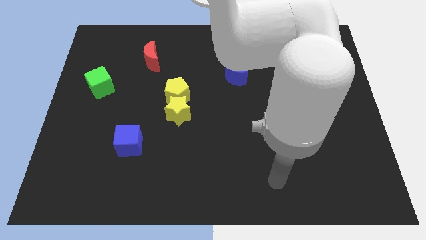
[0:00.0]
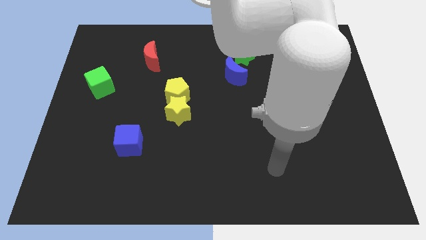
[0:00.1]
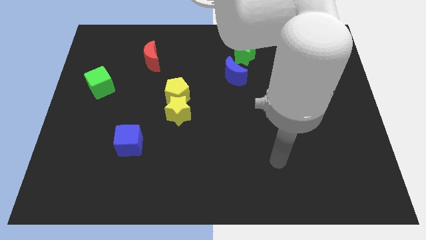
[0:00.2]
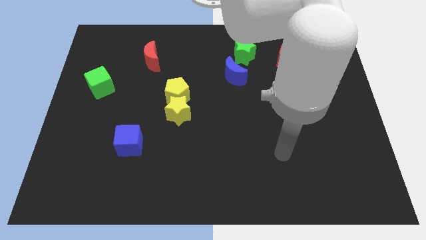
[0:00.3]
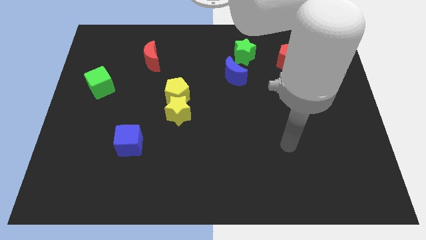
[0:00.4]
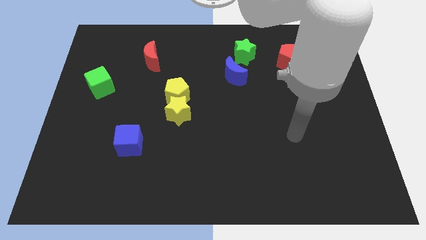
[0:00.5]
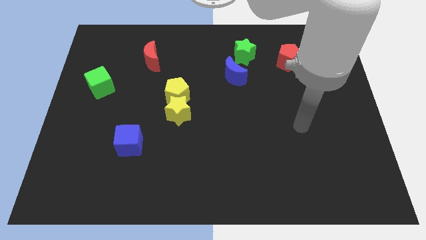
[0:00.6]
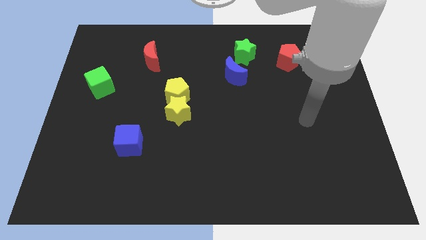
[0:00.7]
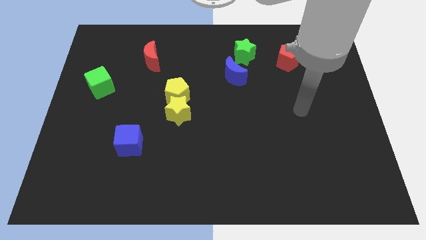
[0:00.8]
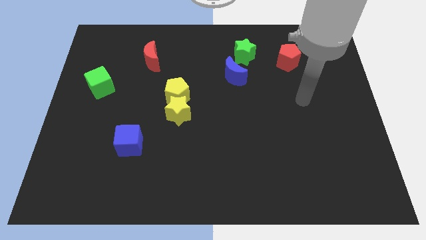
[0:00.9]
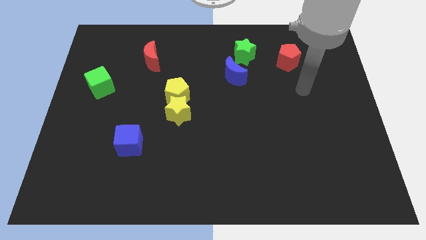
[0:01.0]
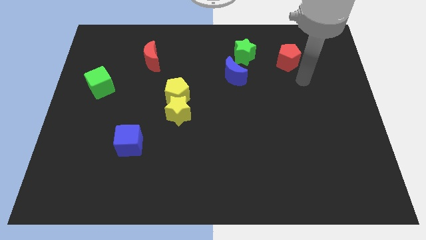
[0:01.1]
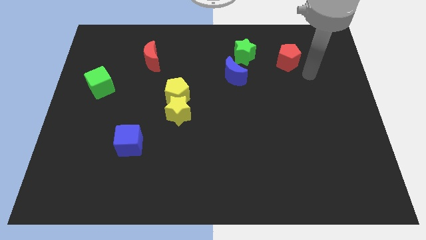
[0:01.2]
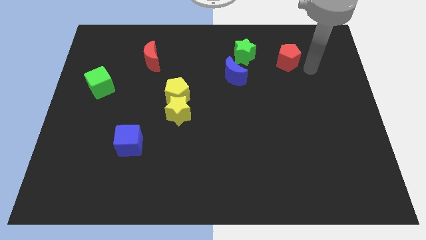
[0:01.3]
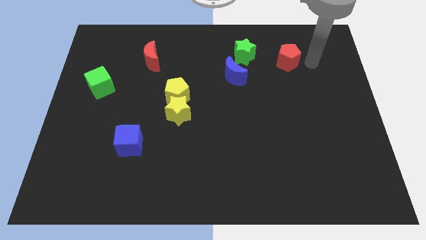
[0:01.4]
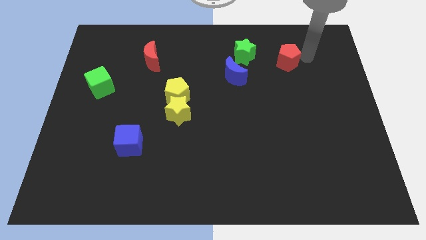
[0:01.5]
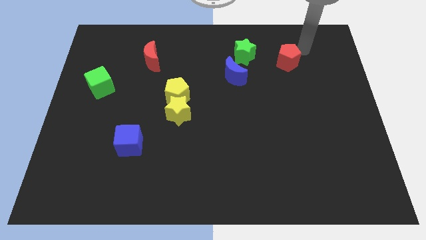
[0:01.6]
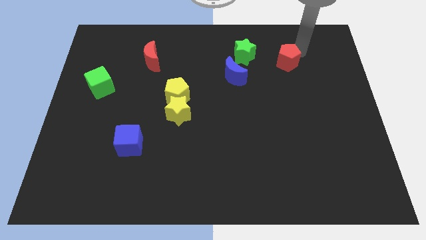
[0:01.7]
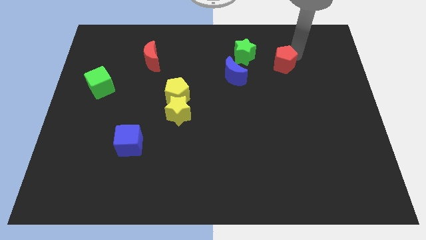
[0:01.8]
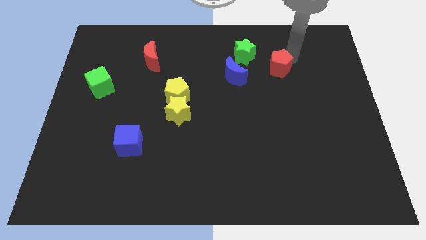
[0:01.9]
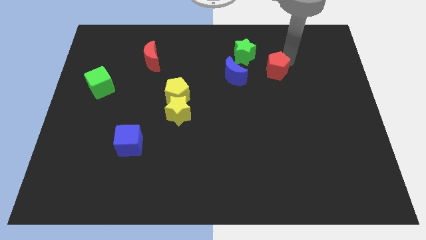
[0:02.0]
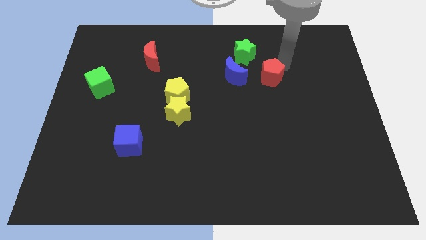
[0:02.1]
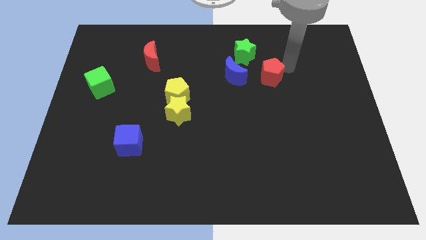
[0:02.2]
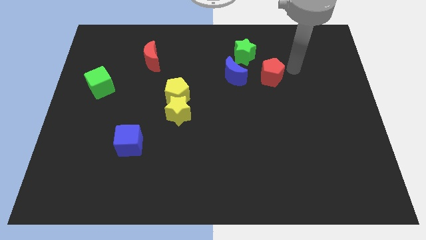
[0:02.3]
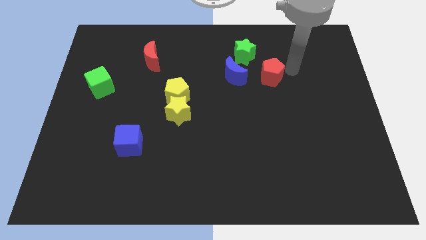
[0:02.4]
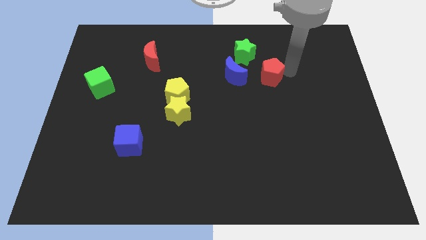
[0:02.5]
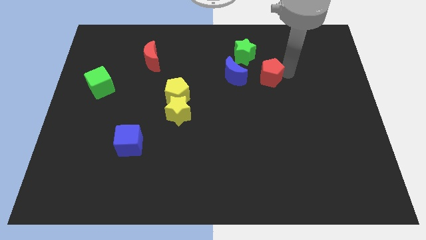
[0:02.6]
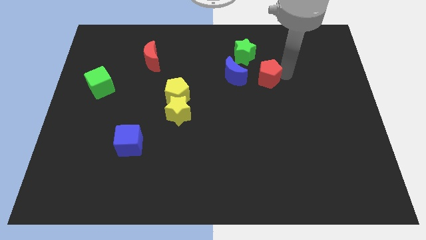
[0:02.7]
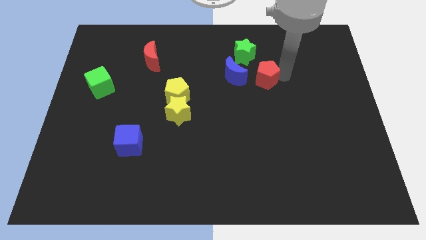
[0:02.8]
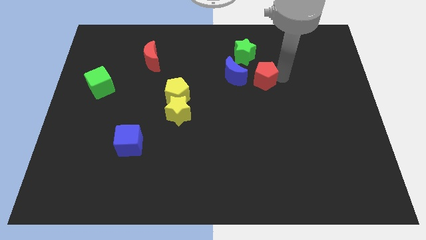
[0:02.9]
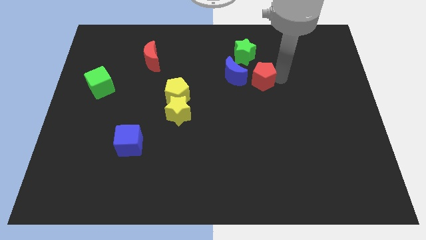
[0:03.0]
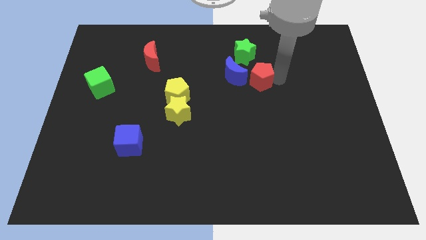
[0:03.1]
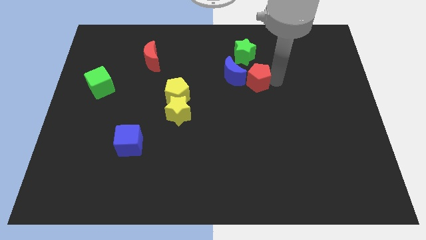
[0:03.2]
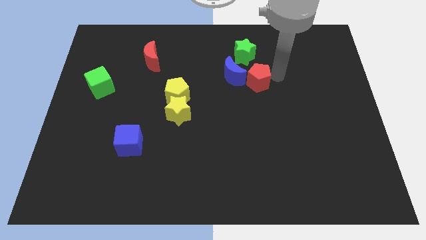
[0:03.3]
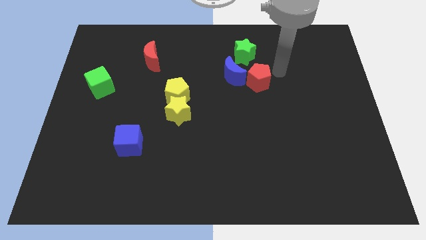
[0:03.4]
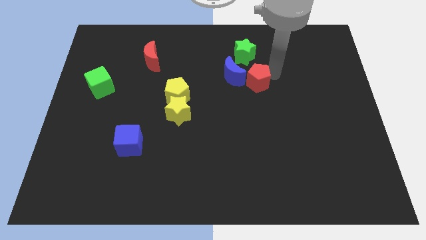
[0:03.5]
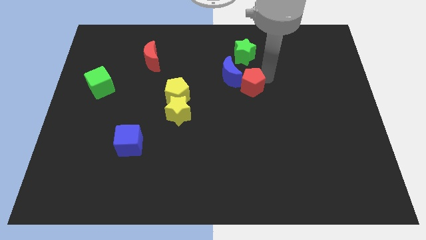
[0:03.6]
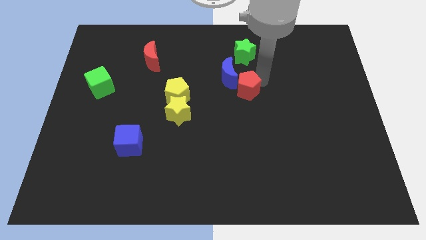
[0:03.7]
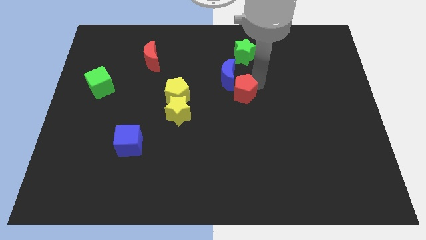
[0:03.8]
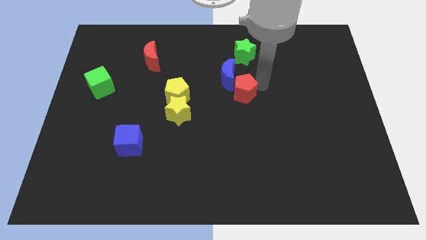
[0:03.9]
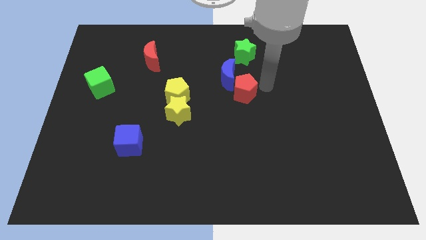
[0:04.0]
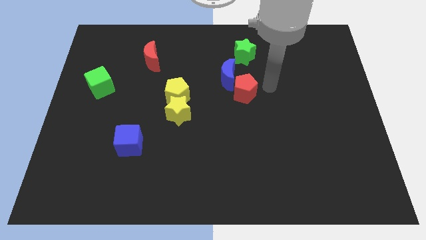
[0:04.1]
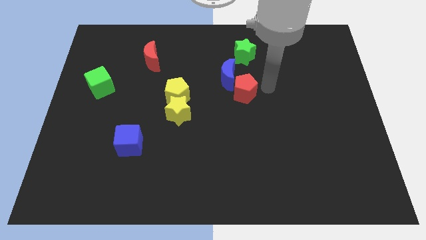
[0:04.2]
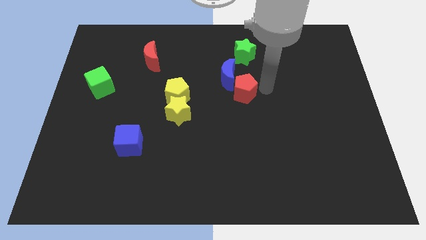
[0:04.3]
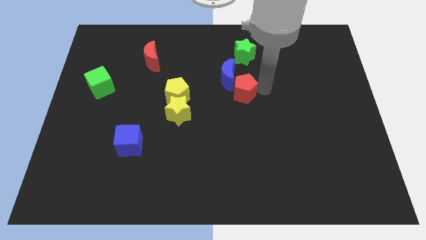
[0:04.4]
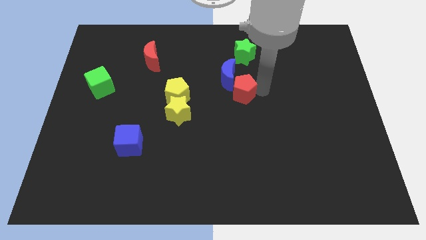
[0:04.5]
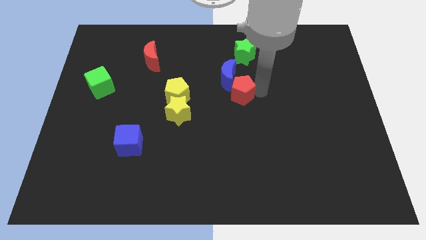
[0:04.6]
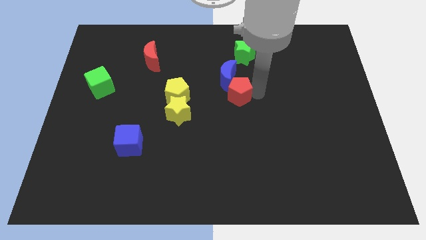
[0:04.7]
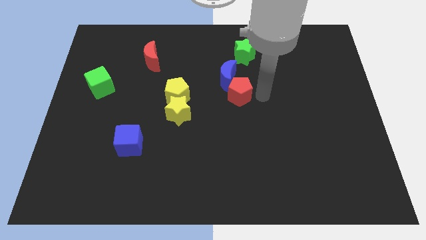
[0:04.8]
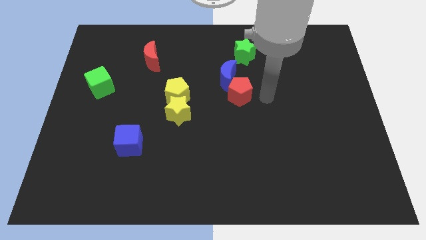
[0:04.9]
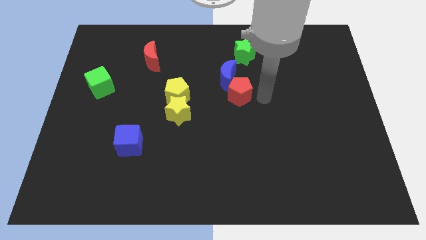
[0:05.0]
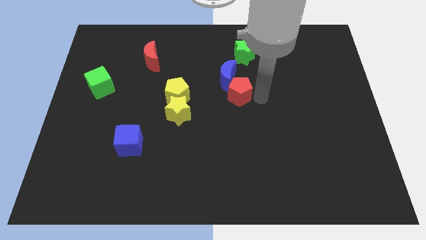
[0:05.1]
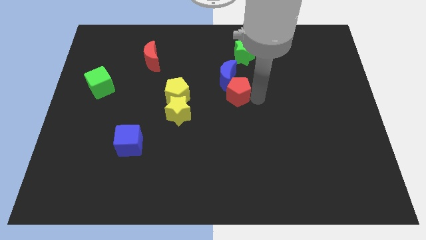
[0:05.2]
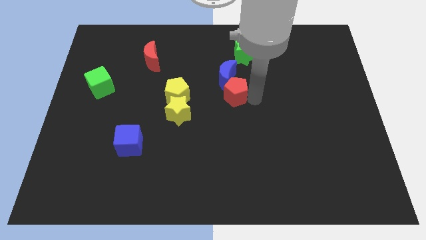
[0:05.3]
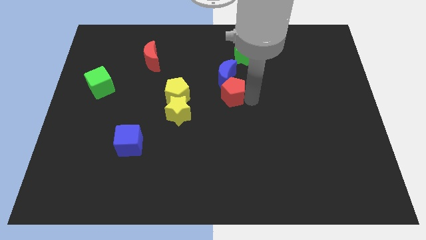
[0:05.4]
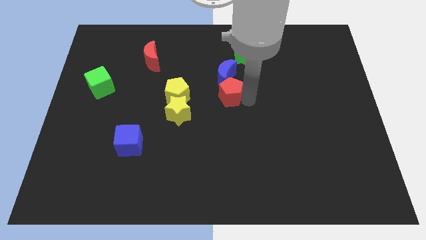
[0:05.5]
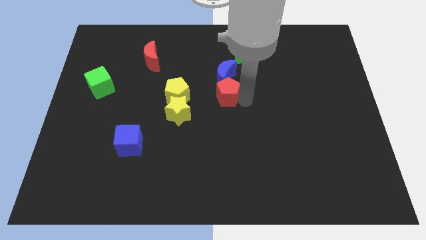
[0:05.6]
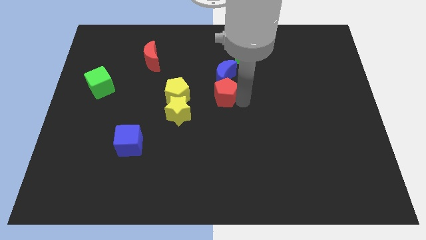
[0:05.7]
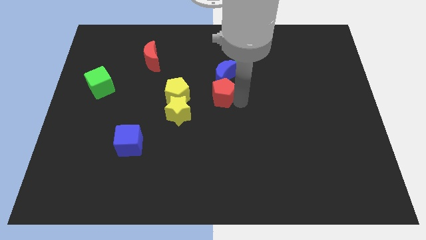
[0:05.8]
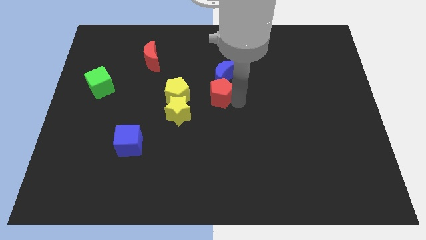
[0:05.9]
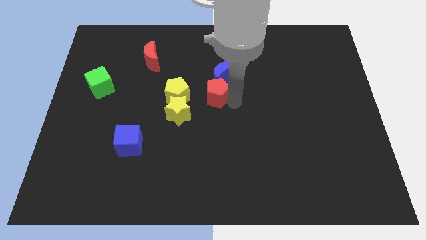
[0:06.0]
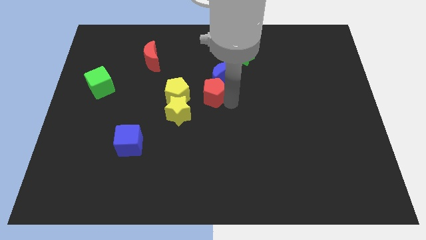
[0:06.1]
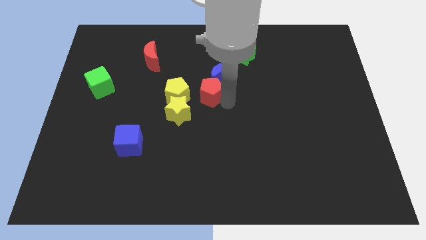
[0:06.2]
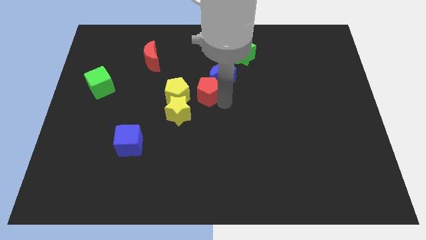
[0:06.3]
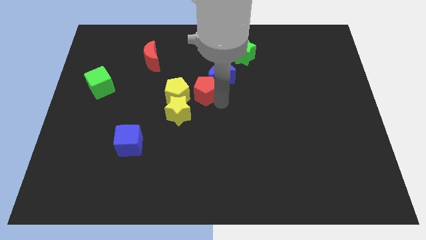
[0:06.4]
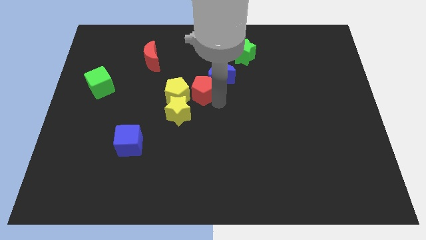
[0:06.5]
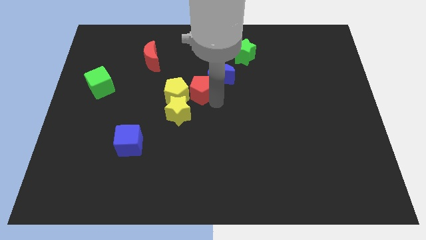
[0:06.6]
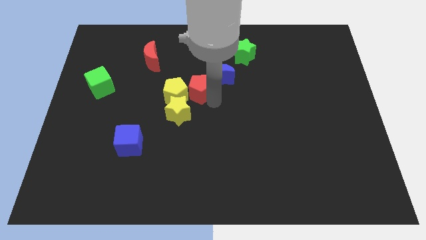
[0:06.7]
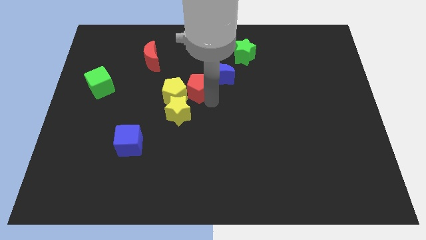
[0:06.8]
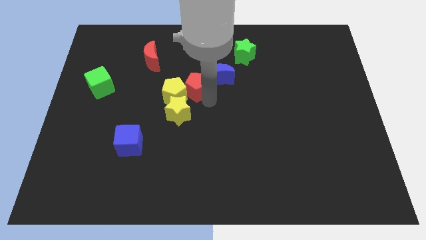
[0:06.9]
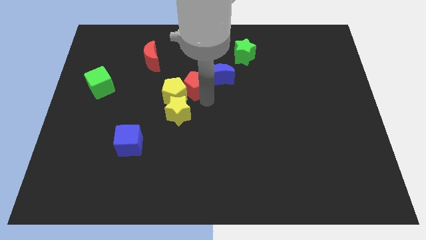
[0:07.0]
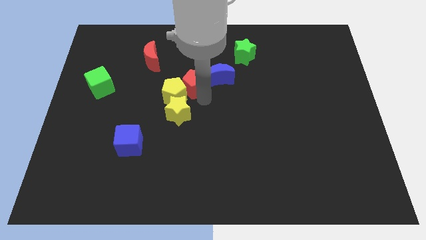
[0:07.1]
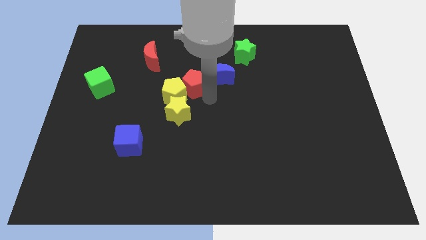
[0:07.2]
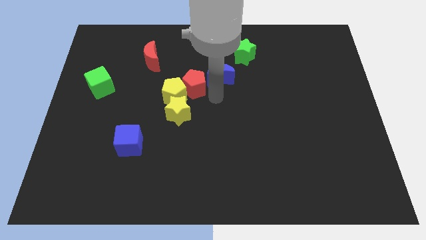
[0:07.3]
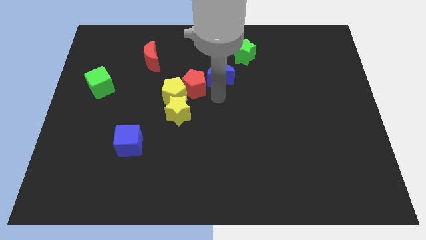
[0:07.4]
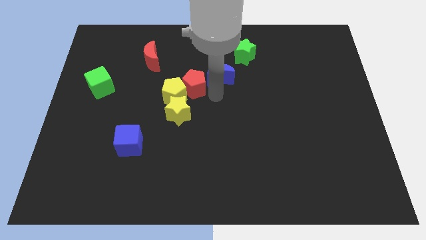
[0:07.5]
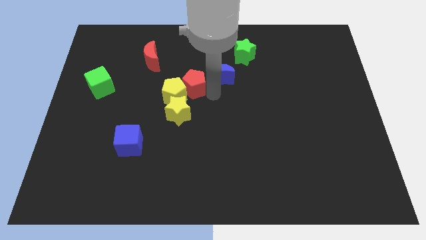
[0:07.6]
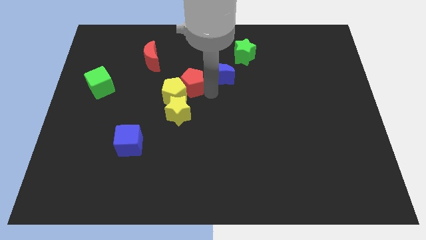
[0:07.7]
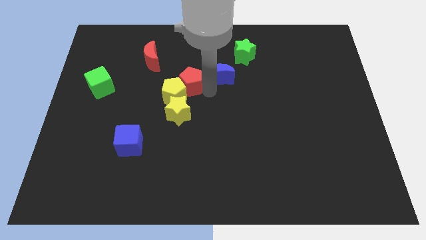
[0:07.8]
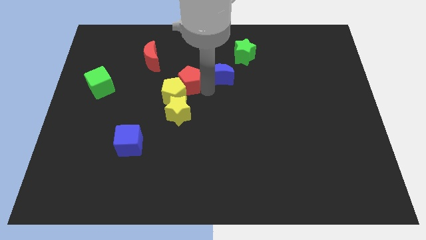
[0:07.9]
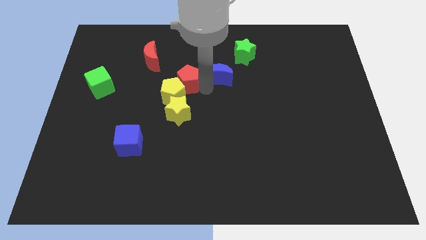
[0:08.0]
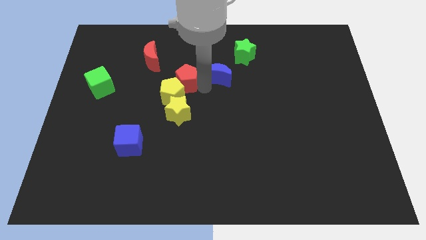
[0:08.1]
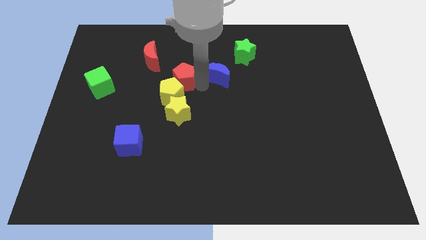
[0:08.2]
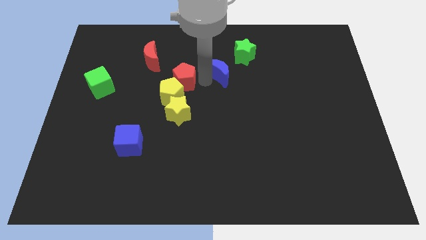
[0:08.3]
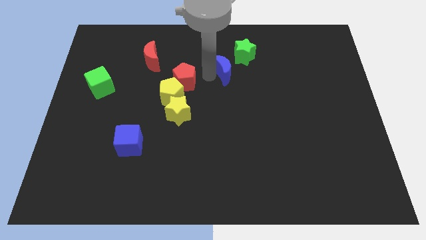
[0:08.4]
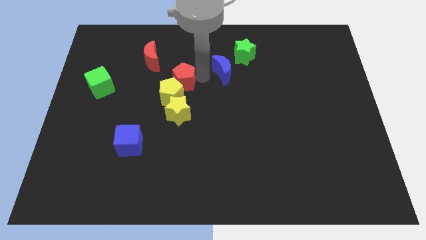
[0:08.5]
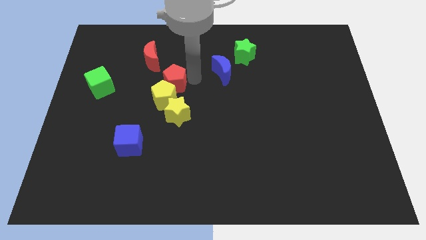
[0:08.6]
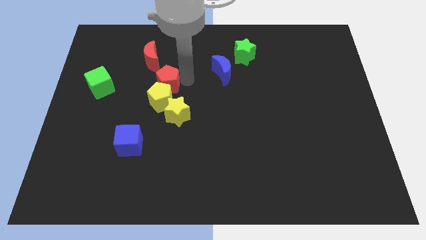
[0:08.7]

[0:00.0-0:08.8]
push the red pentagon to the bottom side of the red moon
